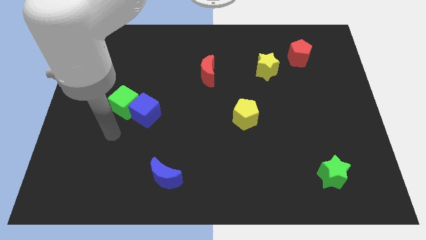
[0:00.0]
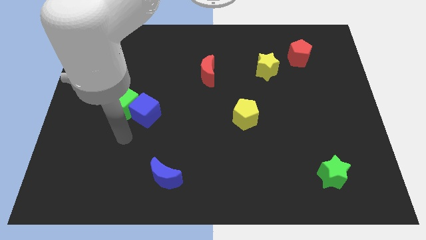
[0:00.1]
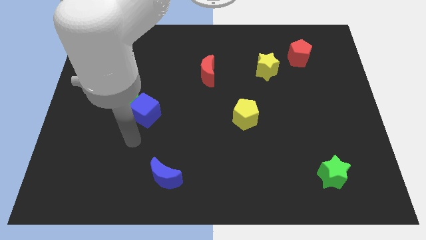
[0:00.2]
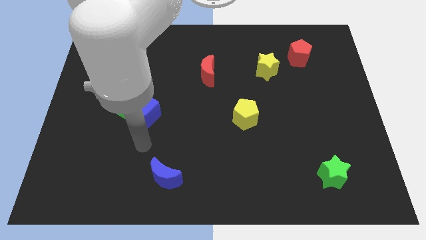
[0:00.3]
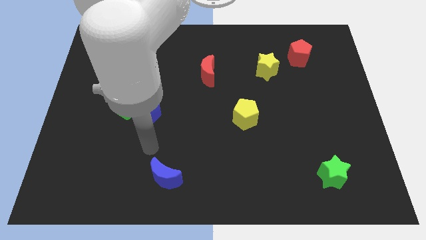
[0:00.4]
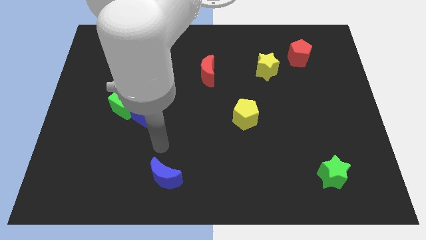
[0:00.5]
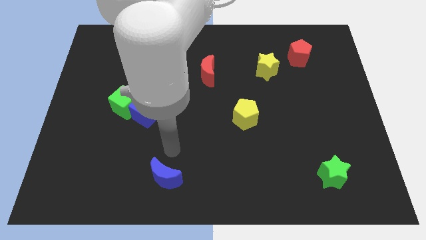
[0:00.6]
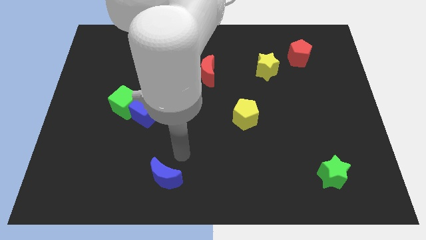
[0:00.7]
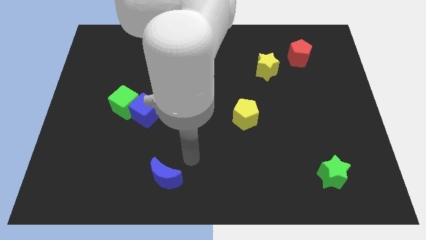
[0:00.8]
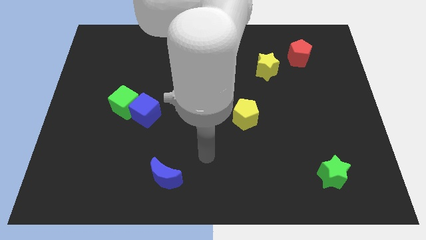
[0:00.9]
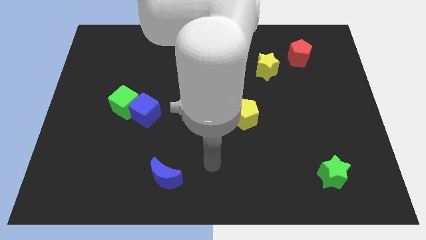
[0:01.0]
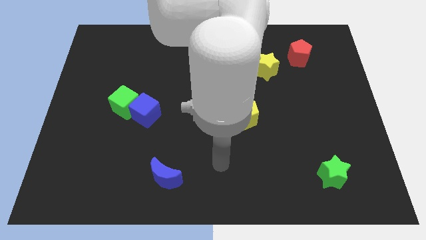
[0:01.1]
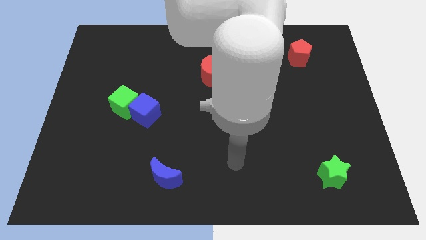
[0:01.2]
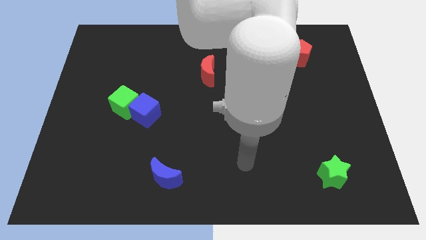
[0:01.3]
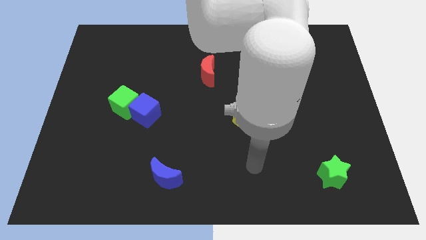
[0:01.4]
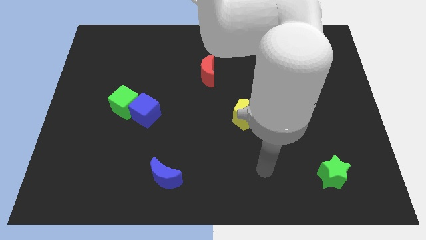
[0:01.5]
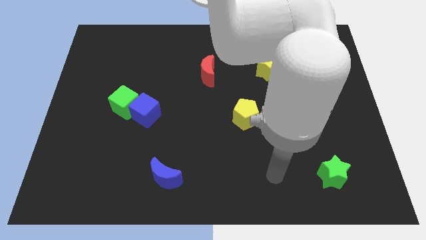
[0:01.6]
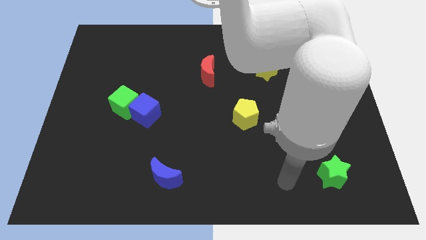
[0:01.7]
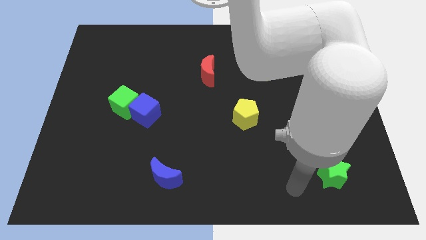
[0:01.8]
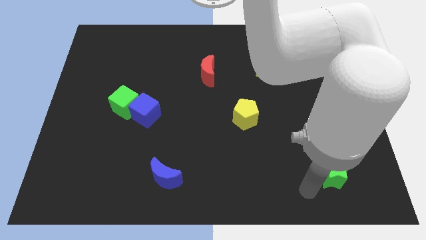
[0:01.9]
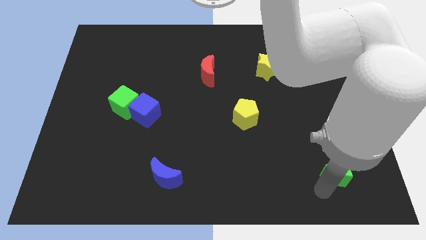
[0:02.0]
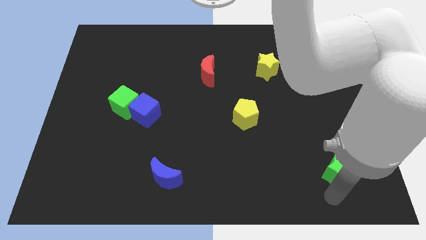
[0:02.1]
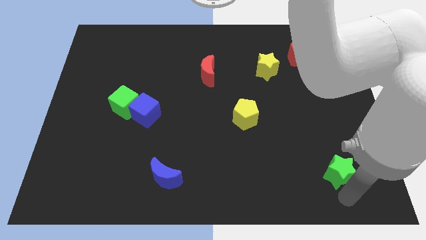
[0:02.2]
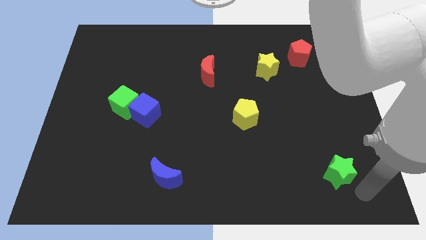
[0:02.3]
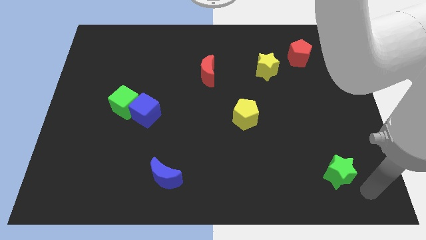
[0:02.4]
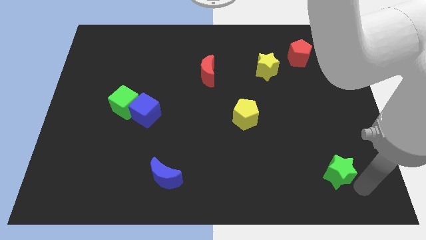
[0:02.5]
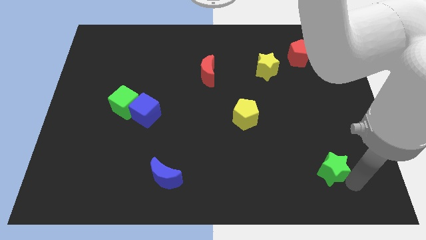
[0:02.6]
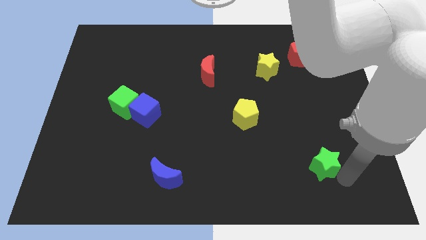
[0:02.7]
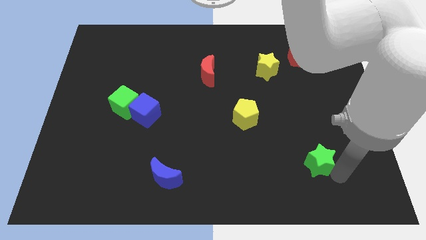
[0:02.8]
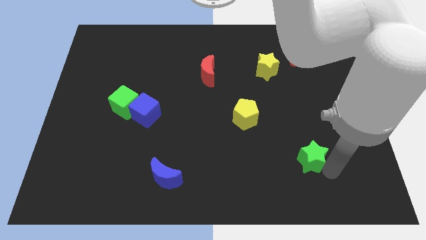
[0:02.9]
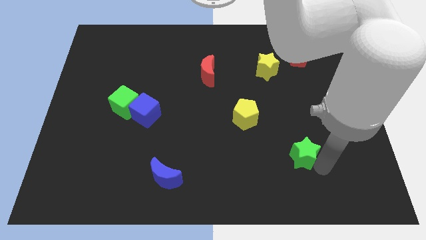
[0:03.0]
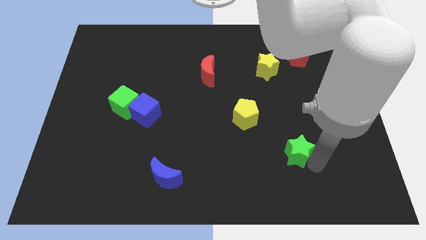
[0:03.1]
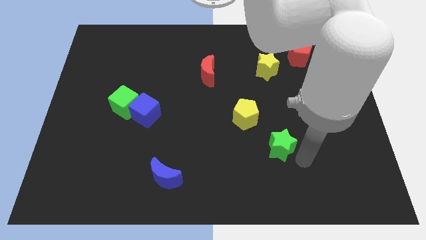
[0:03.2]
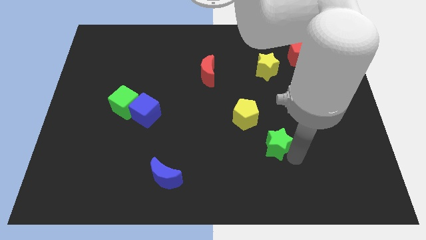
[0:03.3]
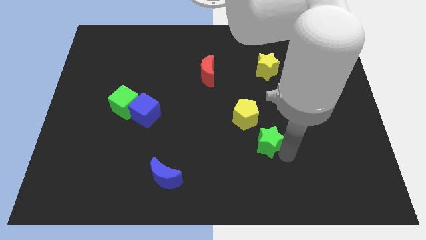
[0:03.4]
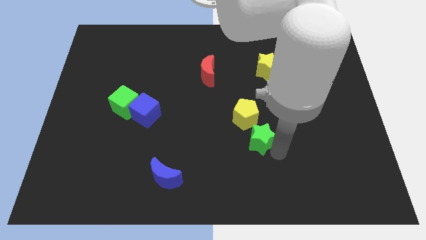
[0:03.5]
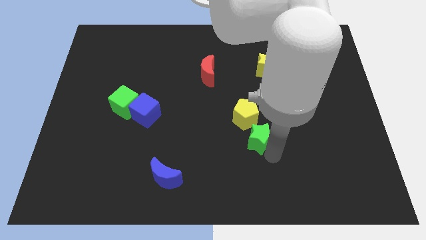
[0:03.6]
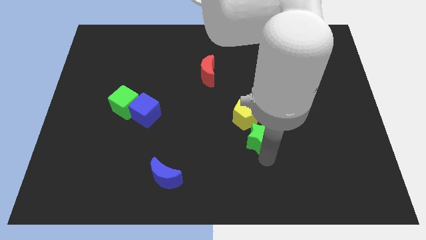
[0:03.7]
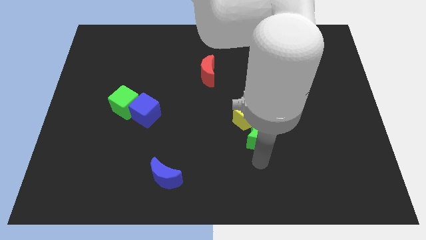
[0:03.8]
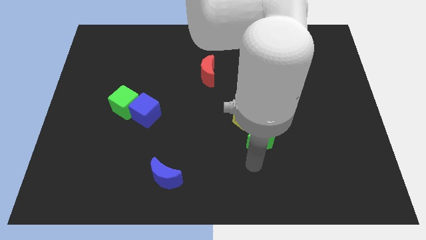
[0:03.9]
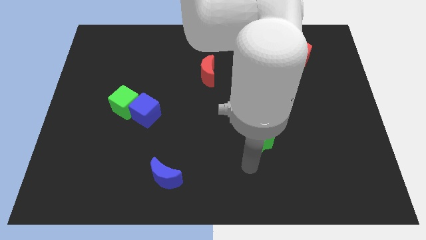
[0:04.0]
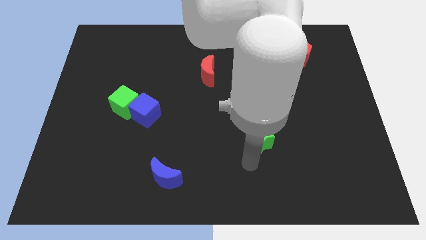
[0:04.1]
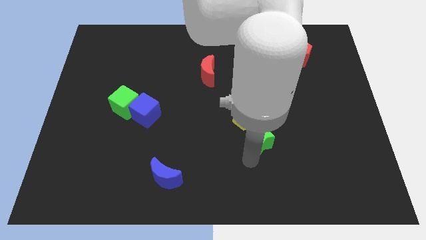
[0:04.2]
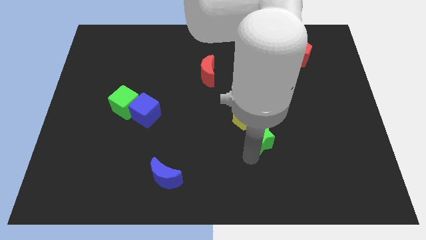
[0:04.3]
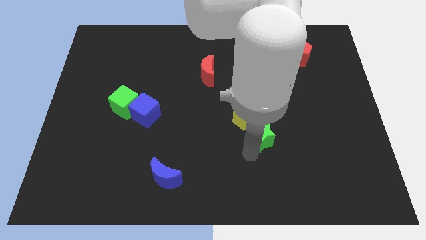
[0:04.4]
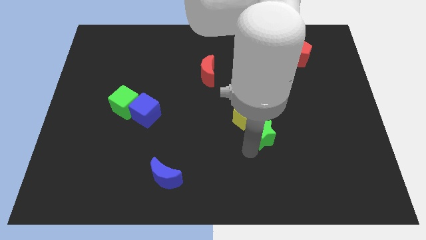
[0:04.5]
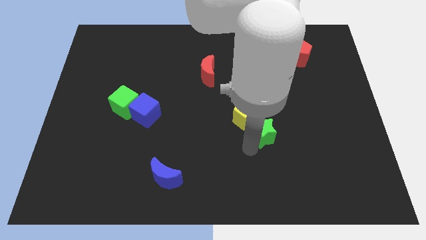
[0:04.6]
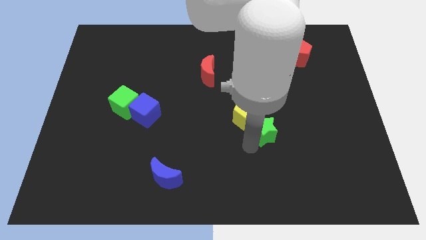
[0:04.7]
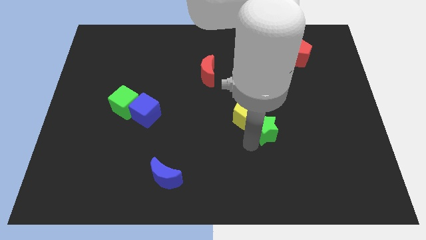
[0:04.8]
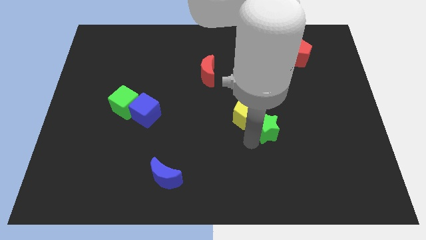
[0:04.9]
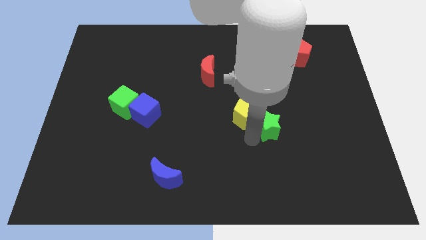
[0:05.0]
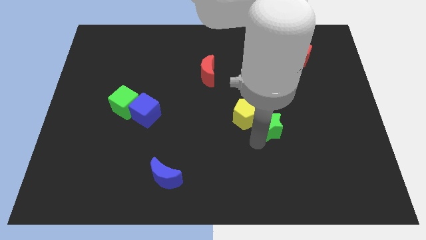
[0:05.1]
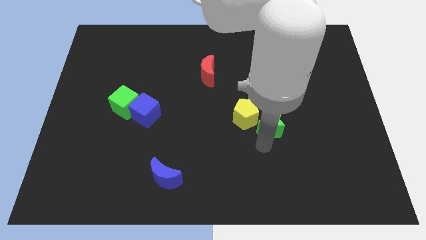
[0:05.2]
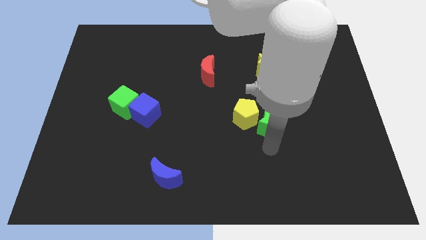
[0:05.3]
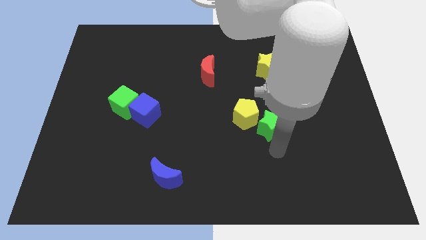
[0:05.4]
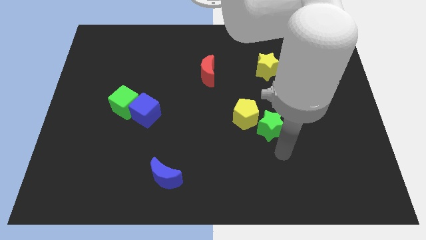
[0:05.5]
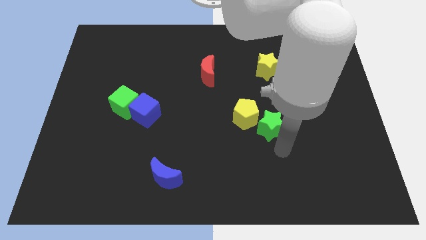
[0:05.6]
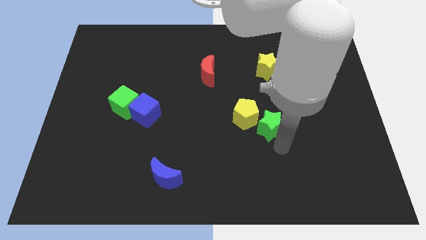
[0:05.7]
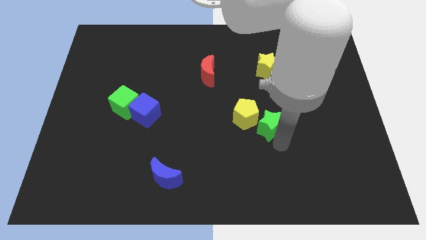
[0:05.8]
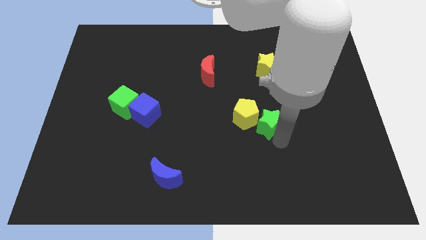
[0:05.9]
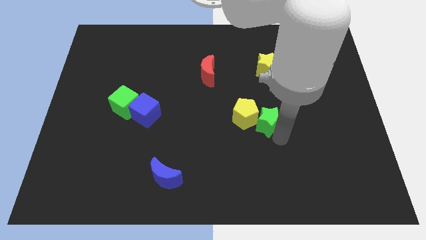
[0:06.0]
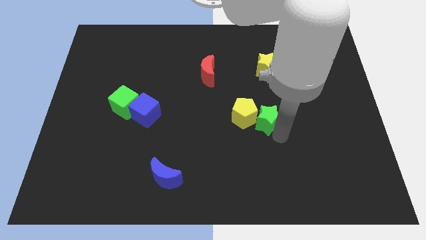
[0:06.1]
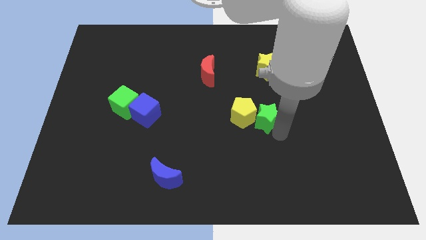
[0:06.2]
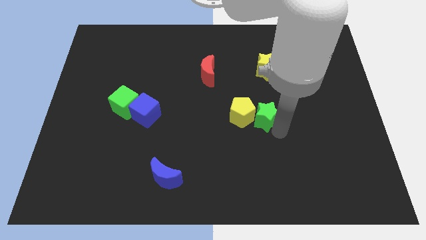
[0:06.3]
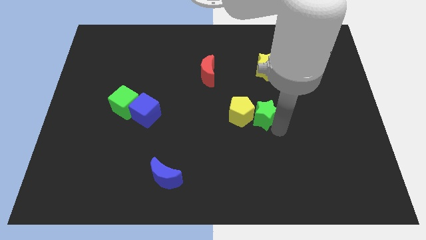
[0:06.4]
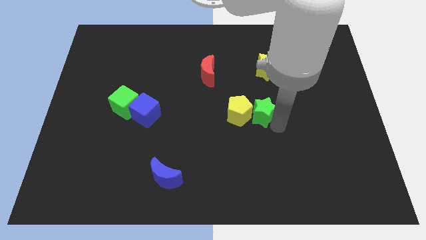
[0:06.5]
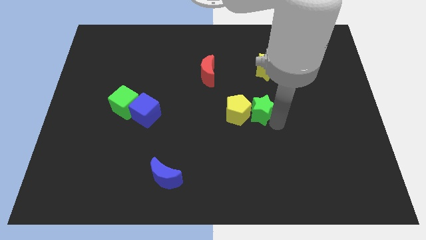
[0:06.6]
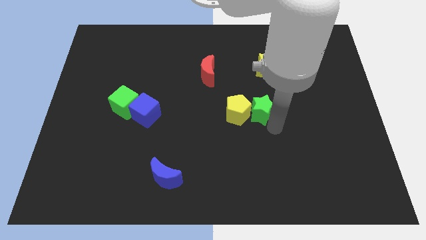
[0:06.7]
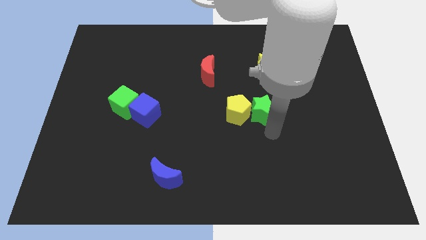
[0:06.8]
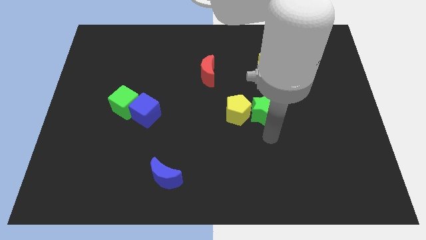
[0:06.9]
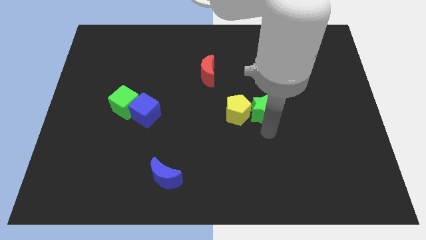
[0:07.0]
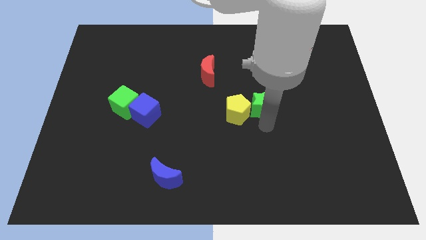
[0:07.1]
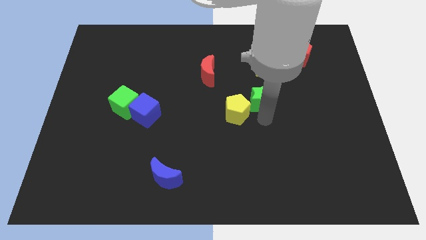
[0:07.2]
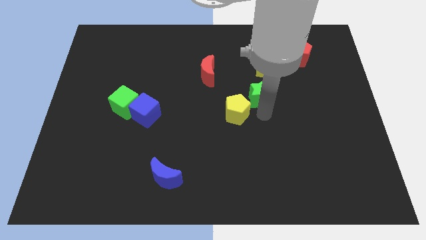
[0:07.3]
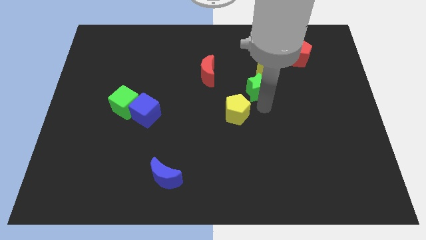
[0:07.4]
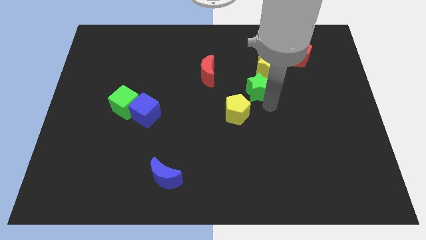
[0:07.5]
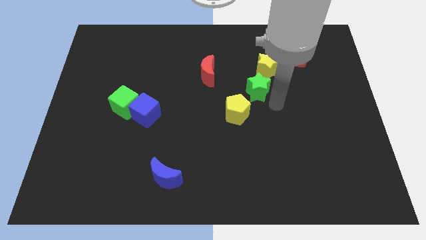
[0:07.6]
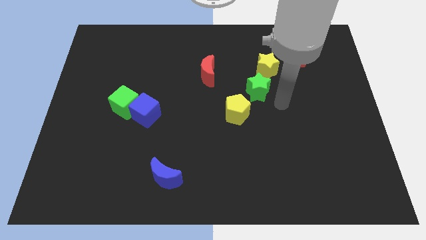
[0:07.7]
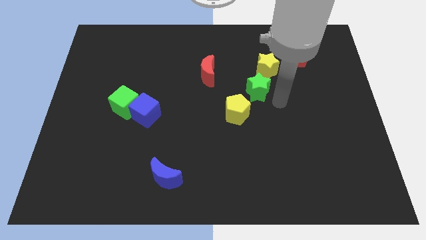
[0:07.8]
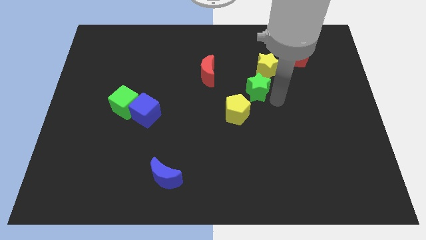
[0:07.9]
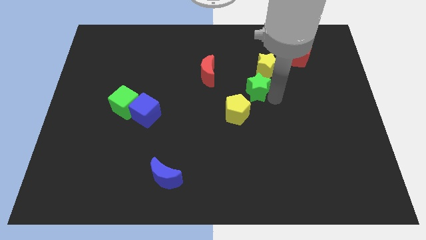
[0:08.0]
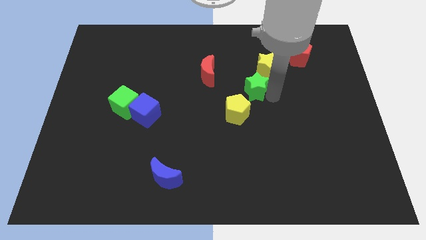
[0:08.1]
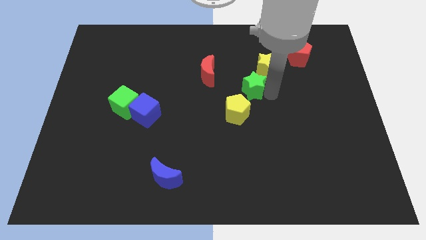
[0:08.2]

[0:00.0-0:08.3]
push the green star to the top side of the yellow pentagon
